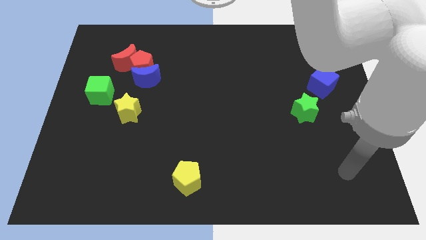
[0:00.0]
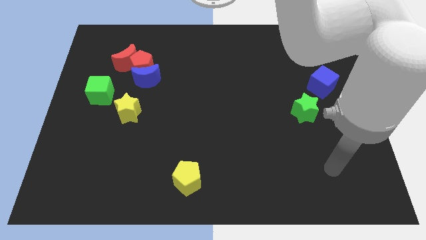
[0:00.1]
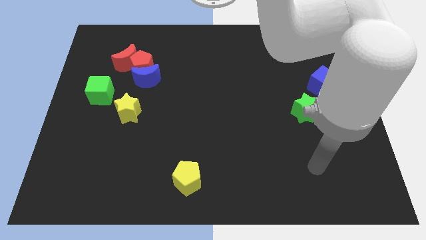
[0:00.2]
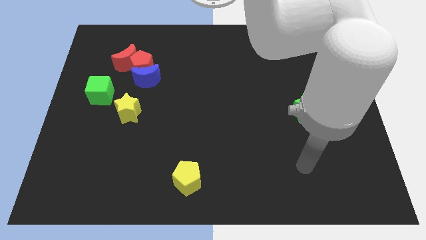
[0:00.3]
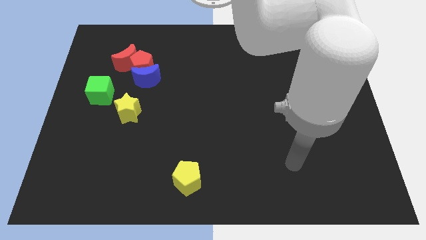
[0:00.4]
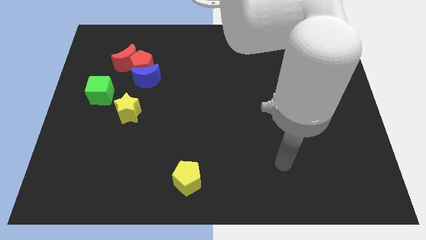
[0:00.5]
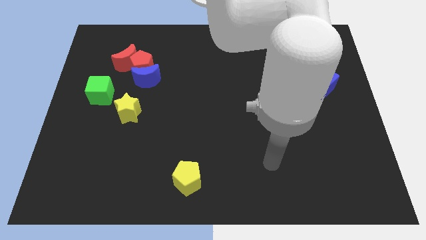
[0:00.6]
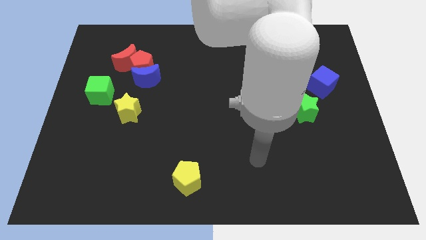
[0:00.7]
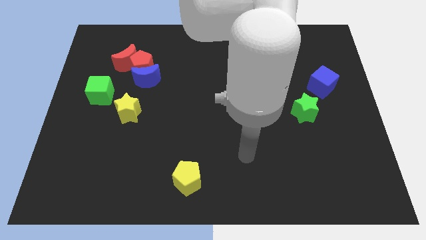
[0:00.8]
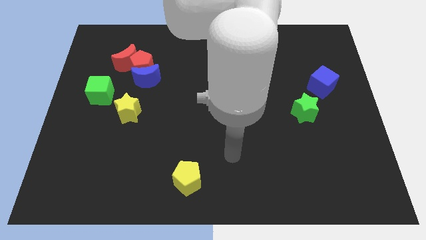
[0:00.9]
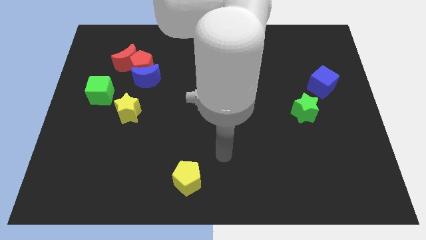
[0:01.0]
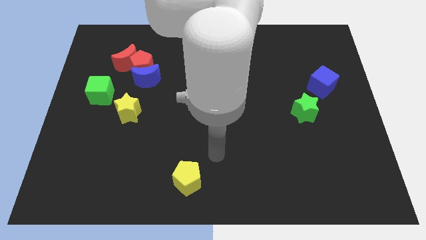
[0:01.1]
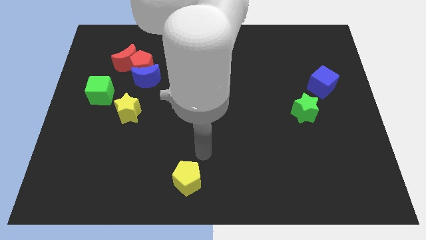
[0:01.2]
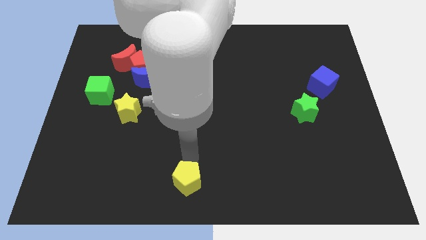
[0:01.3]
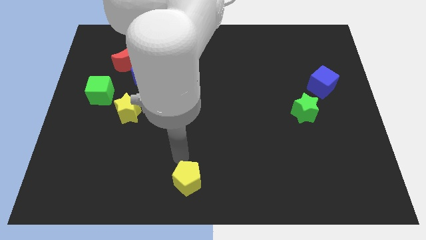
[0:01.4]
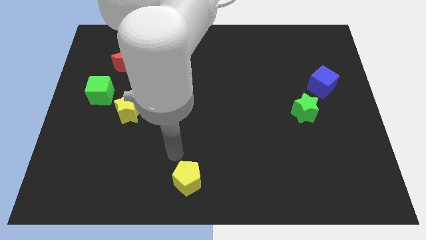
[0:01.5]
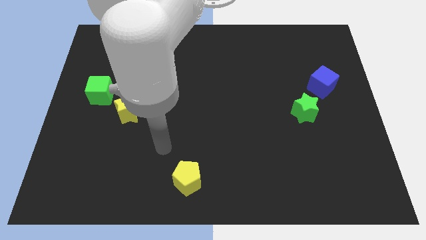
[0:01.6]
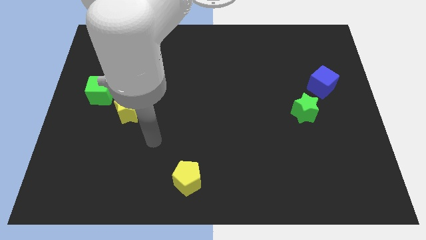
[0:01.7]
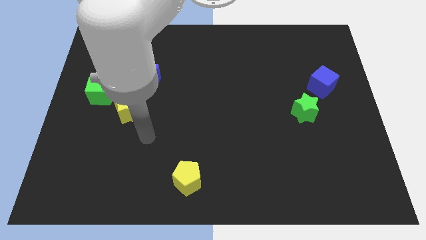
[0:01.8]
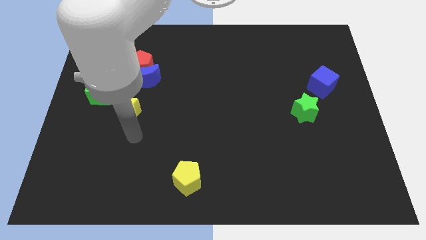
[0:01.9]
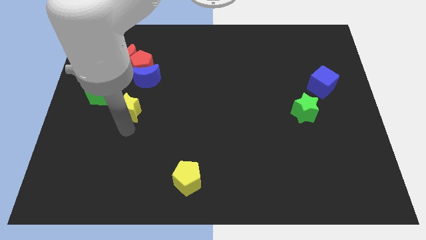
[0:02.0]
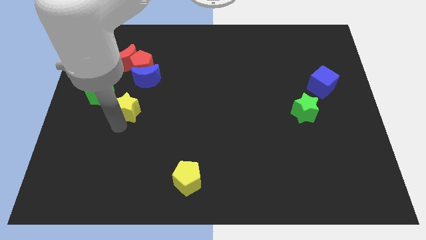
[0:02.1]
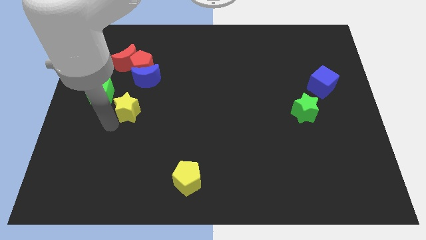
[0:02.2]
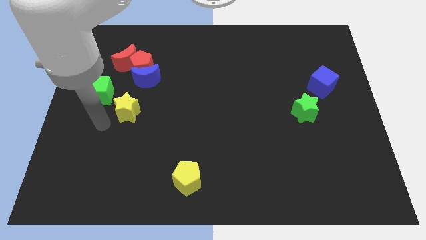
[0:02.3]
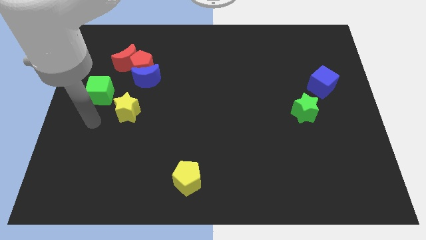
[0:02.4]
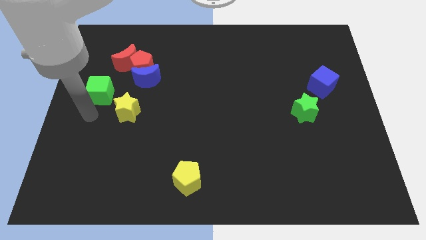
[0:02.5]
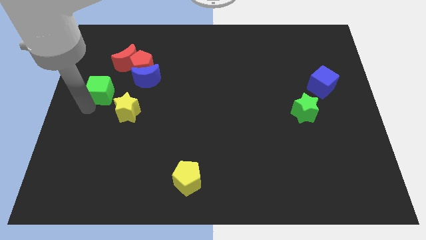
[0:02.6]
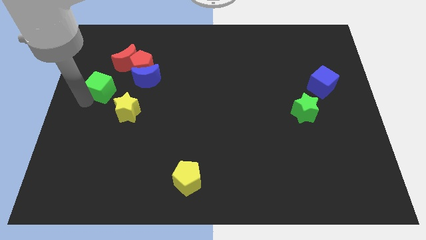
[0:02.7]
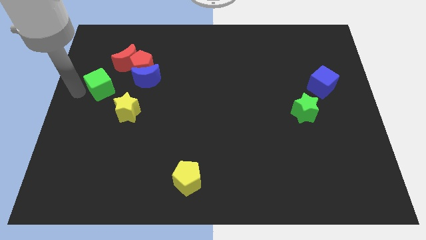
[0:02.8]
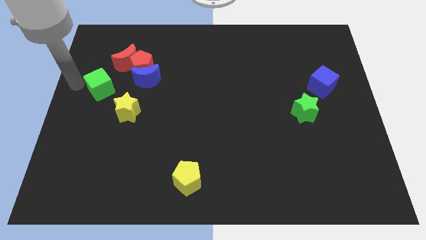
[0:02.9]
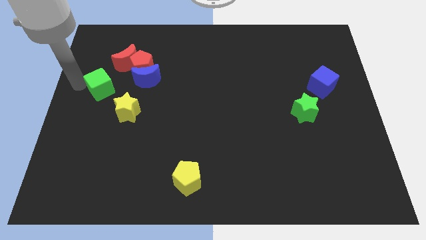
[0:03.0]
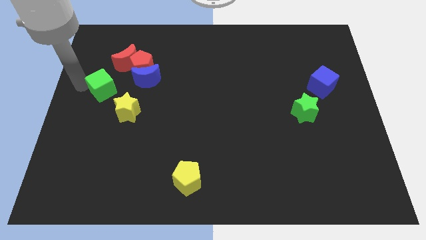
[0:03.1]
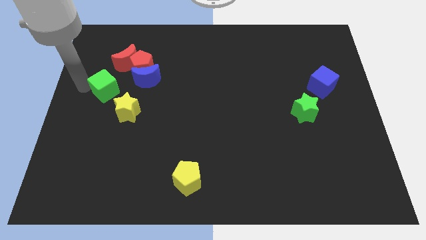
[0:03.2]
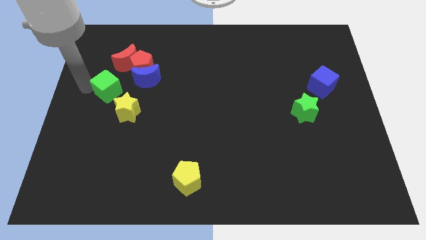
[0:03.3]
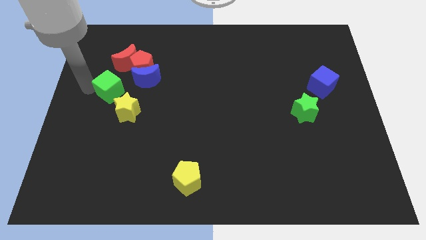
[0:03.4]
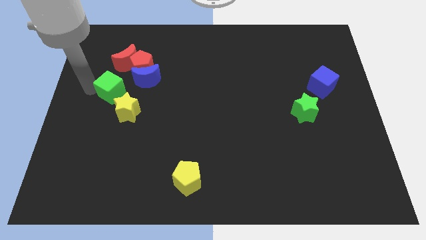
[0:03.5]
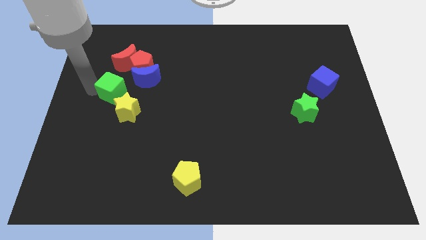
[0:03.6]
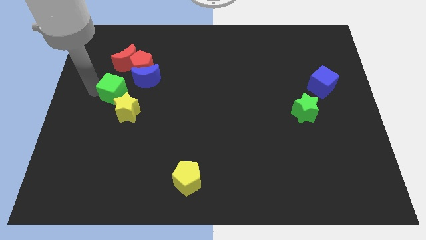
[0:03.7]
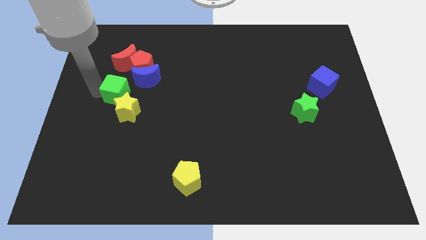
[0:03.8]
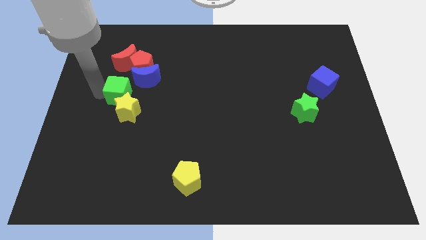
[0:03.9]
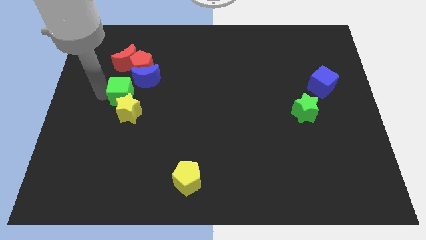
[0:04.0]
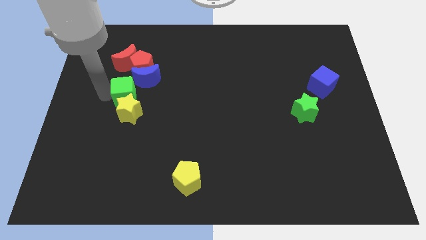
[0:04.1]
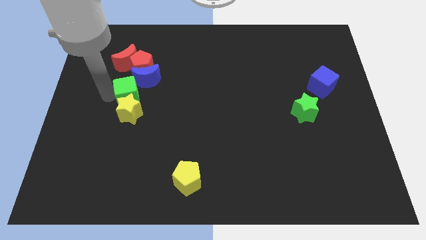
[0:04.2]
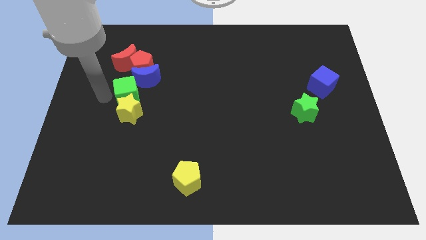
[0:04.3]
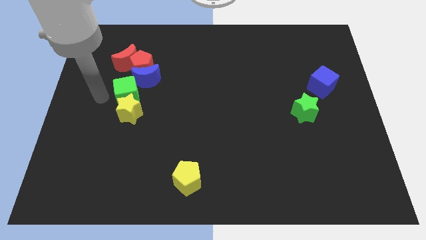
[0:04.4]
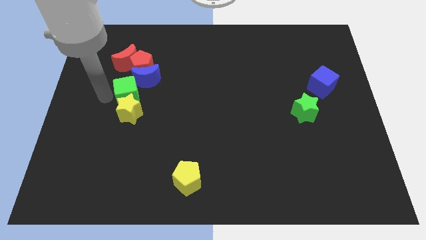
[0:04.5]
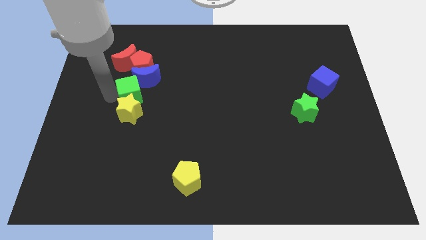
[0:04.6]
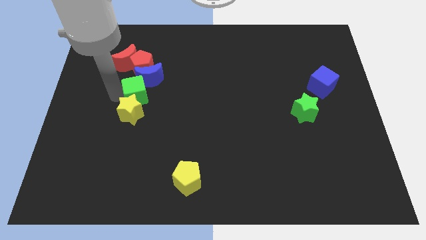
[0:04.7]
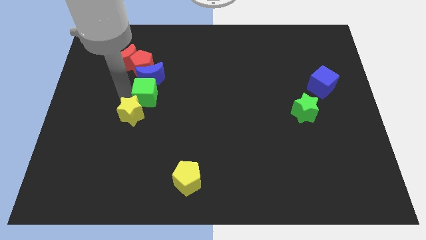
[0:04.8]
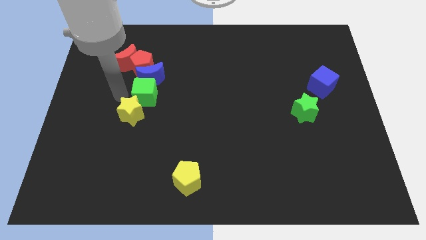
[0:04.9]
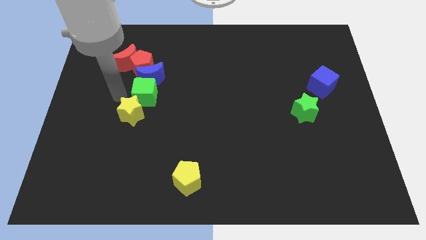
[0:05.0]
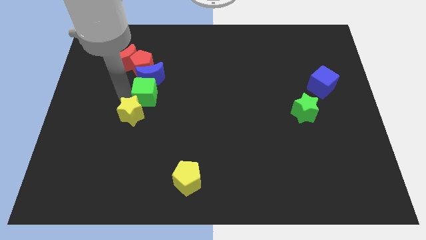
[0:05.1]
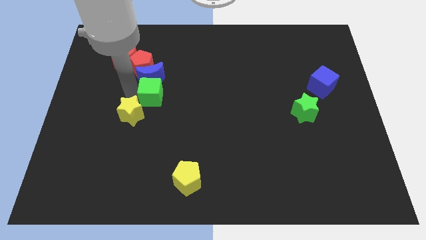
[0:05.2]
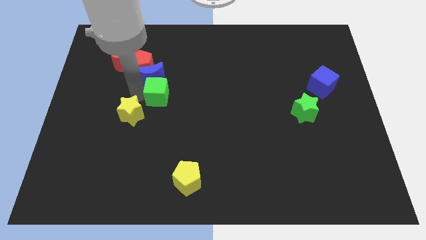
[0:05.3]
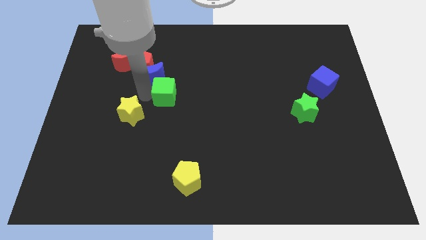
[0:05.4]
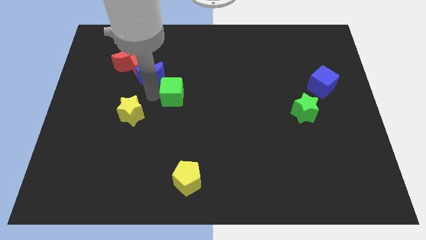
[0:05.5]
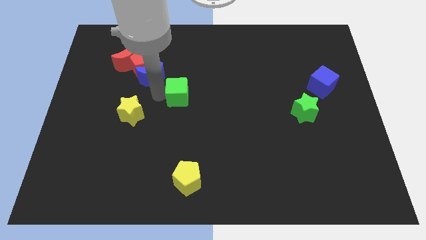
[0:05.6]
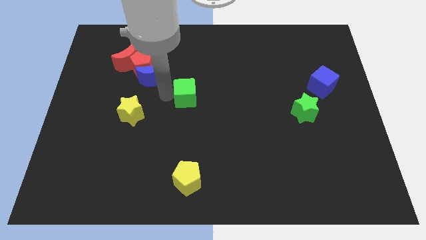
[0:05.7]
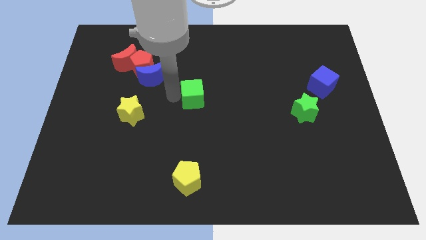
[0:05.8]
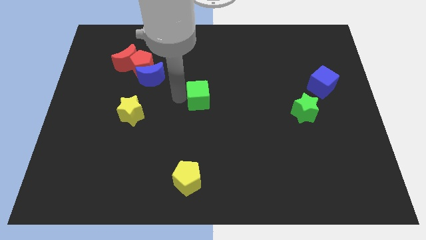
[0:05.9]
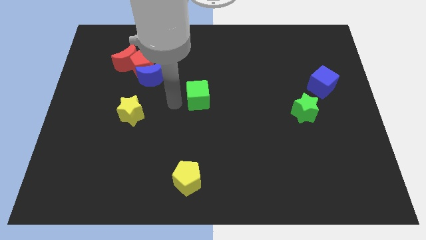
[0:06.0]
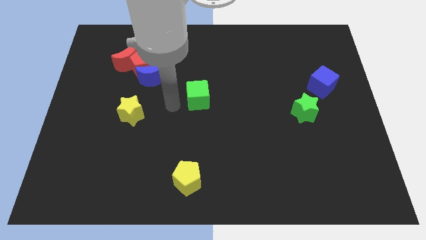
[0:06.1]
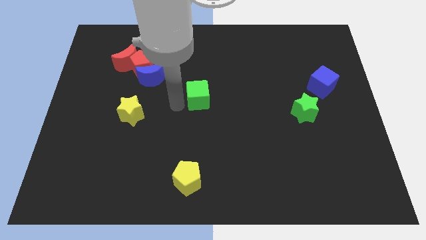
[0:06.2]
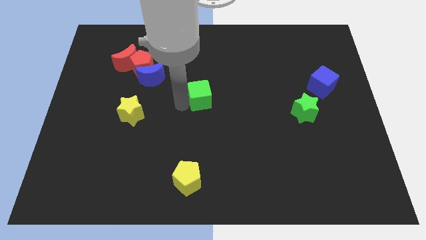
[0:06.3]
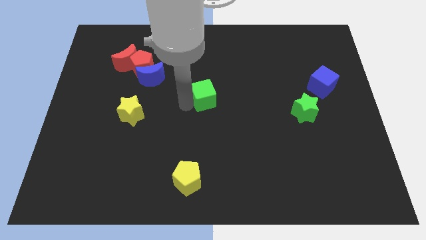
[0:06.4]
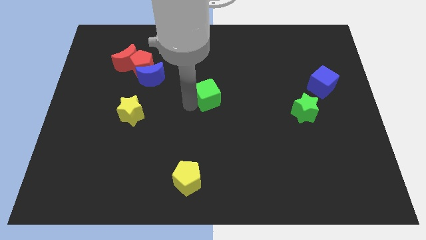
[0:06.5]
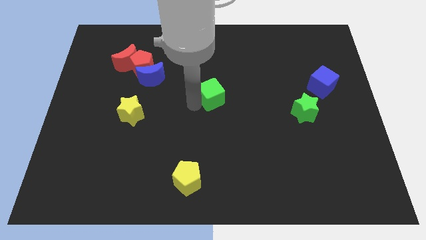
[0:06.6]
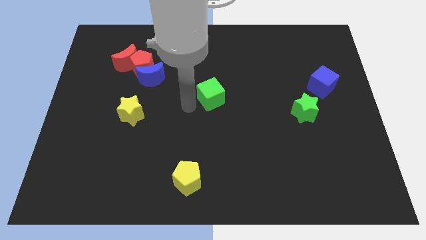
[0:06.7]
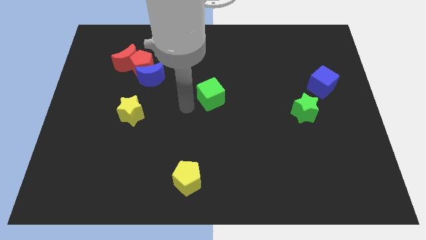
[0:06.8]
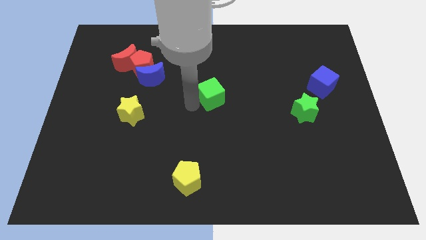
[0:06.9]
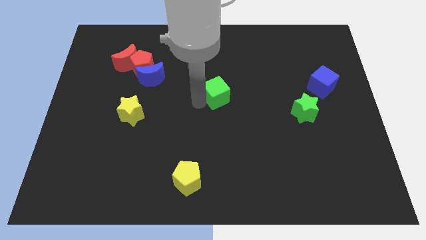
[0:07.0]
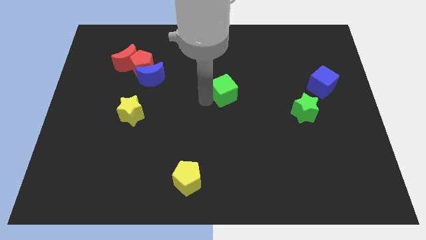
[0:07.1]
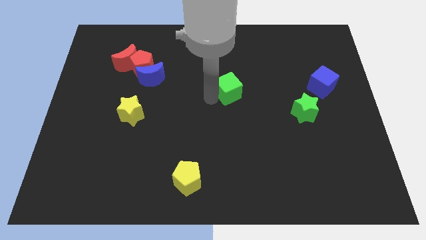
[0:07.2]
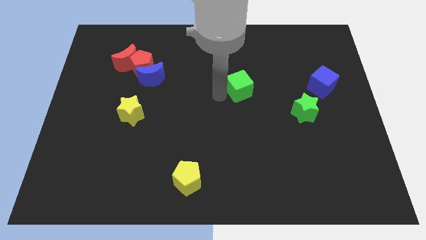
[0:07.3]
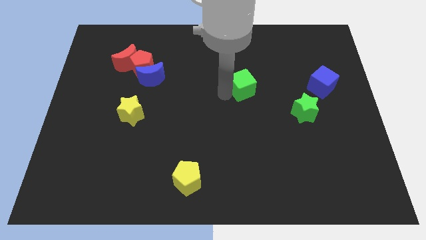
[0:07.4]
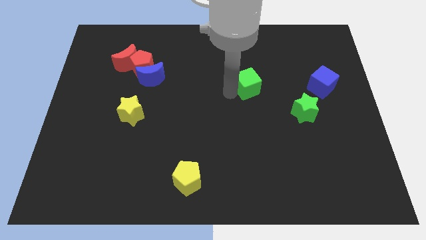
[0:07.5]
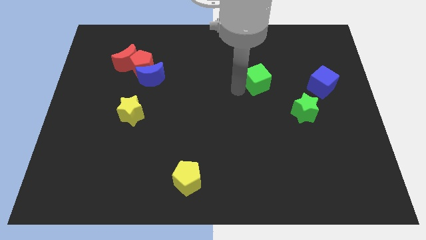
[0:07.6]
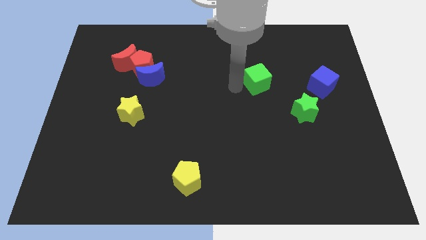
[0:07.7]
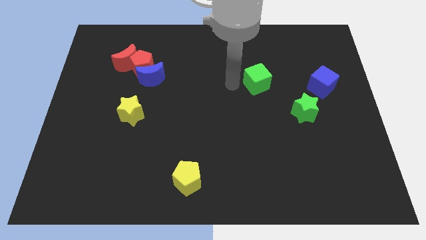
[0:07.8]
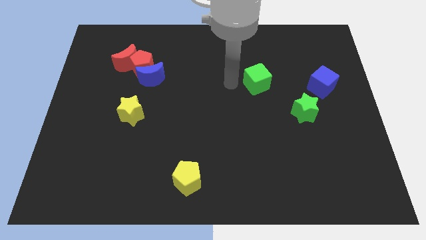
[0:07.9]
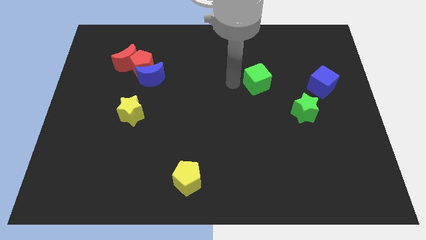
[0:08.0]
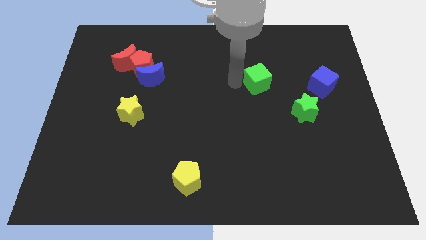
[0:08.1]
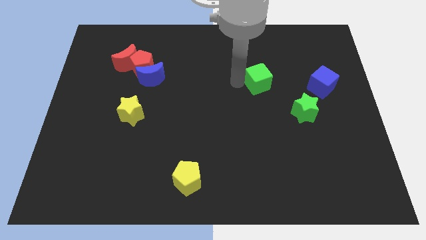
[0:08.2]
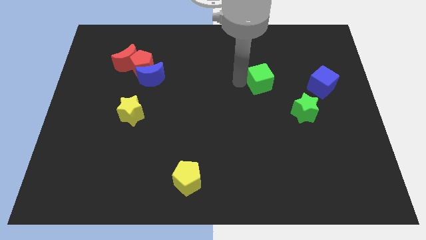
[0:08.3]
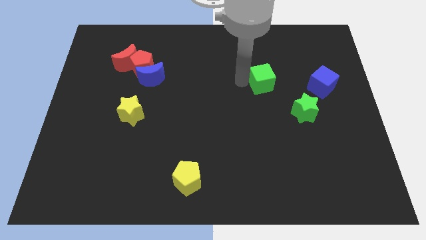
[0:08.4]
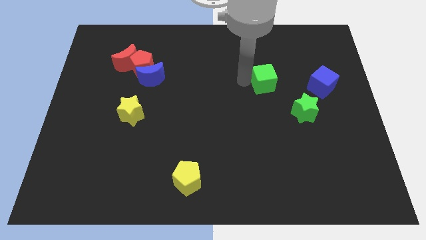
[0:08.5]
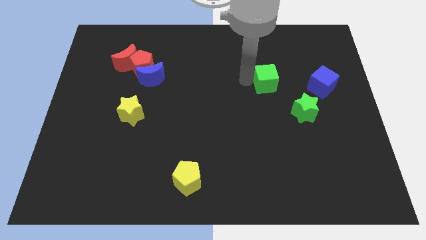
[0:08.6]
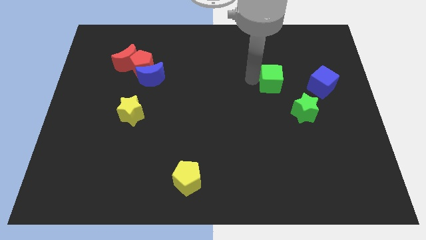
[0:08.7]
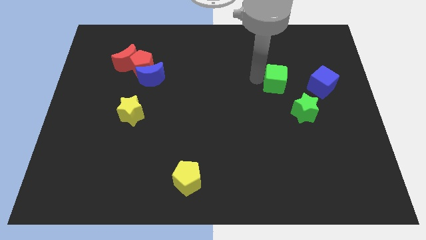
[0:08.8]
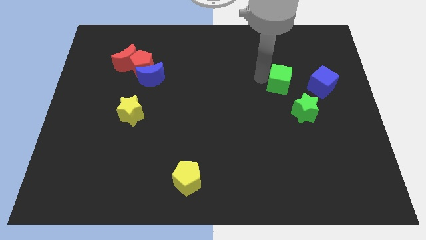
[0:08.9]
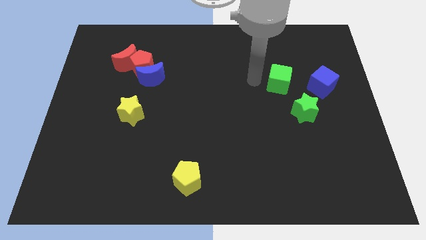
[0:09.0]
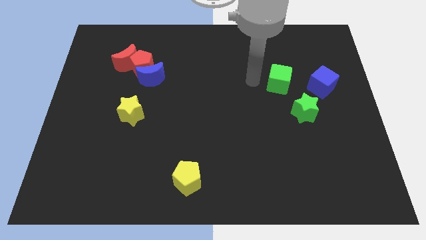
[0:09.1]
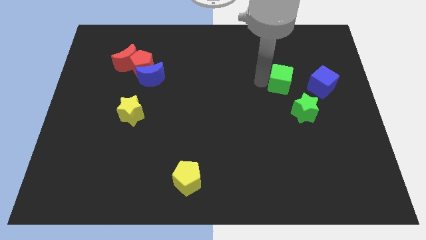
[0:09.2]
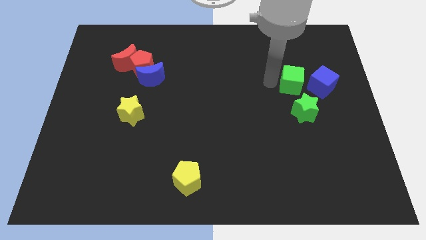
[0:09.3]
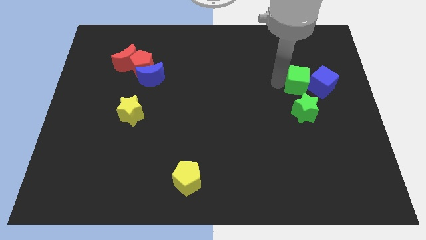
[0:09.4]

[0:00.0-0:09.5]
move the green cube to the blue cube
